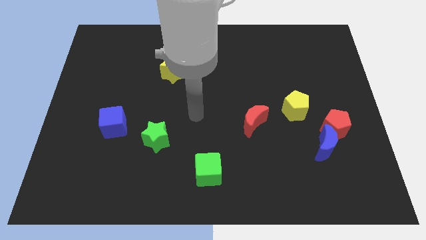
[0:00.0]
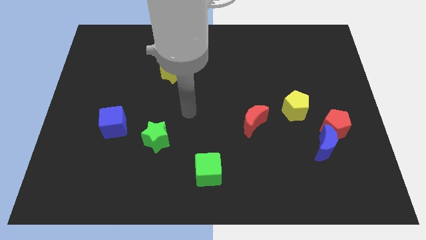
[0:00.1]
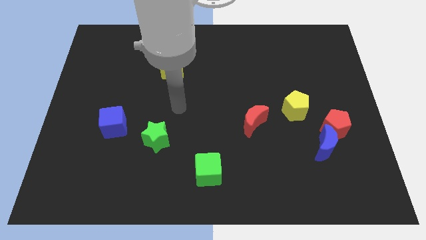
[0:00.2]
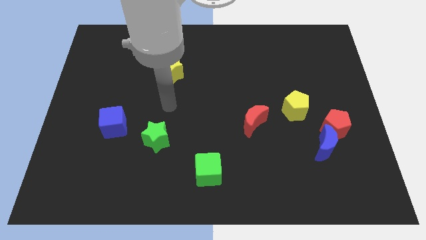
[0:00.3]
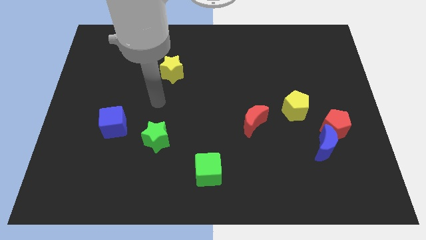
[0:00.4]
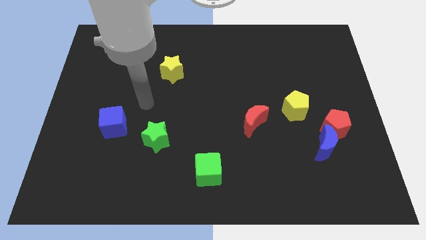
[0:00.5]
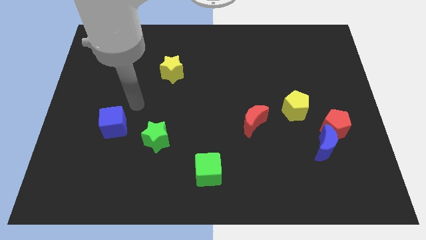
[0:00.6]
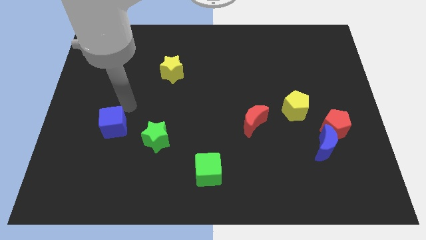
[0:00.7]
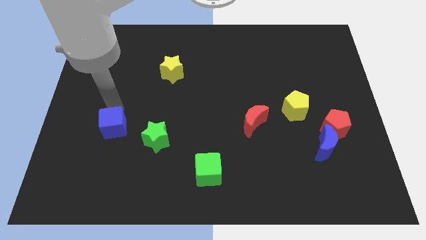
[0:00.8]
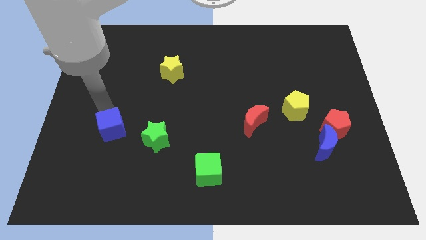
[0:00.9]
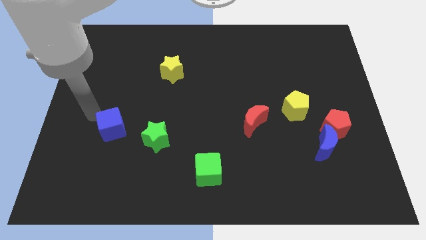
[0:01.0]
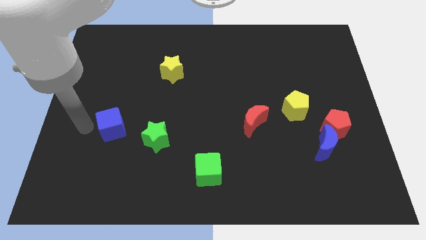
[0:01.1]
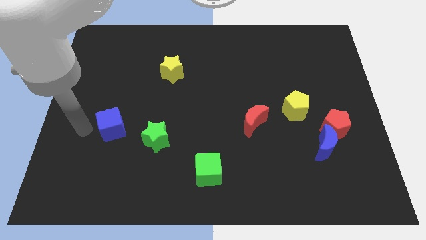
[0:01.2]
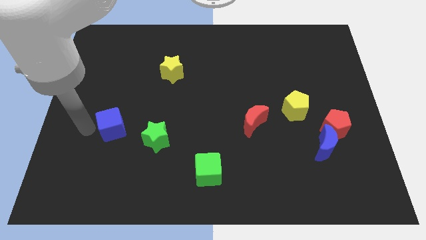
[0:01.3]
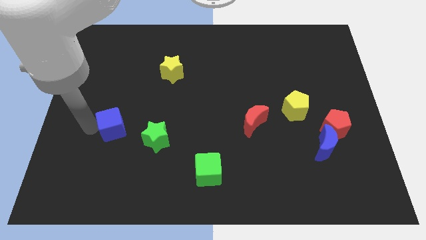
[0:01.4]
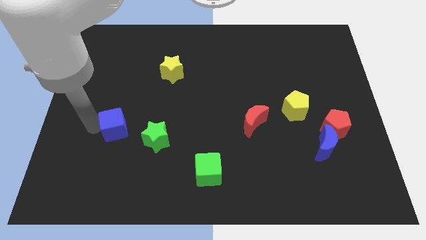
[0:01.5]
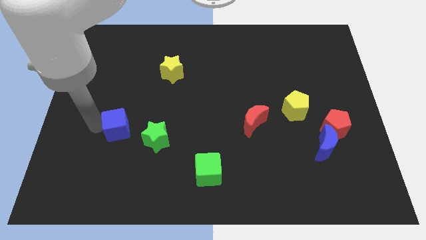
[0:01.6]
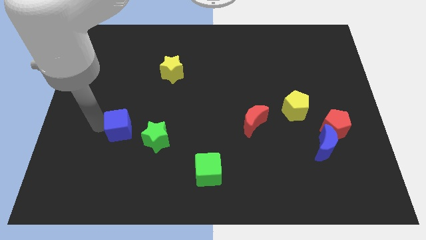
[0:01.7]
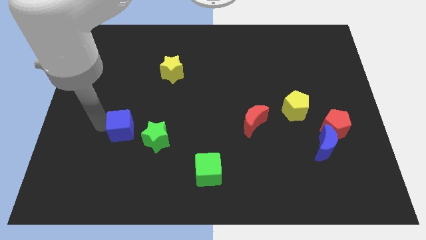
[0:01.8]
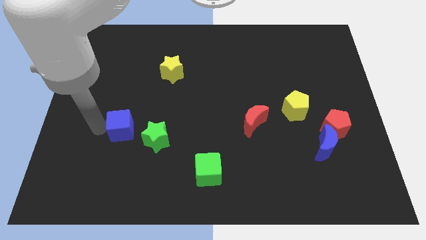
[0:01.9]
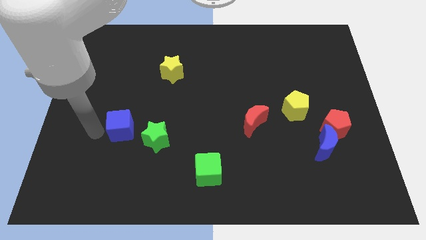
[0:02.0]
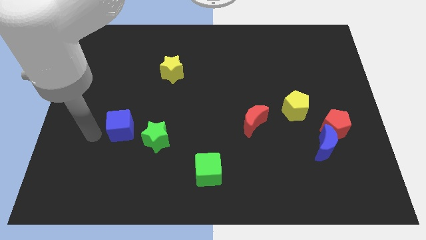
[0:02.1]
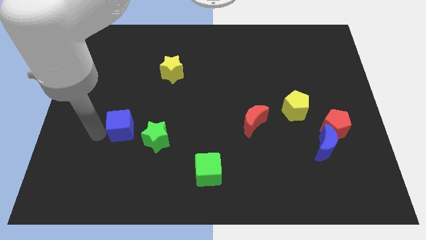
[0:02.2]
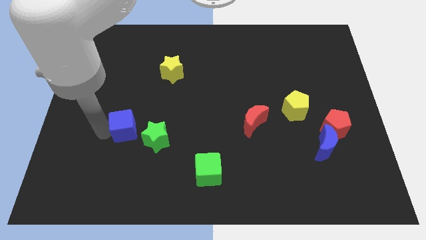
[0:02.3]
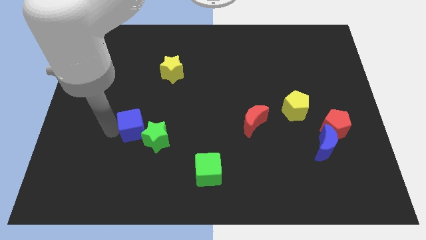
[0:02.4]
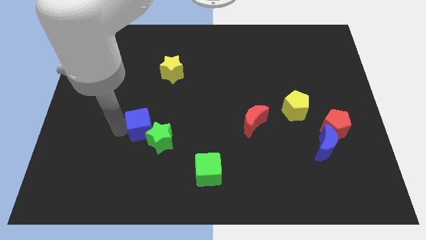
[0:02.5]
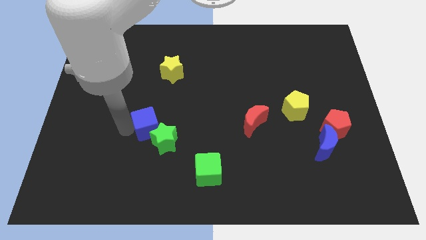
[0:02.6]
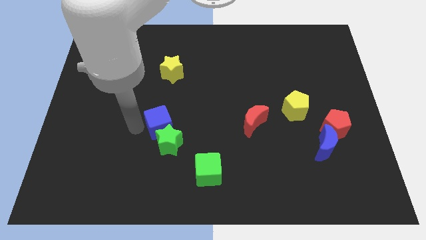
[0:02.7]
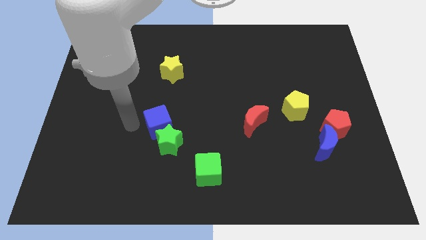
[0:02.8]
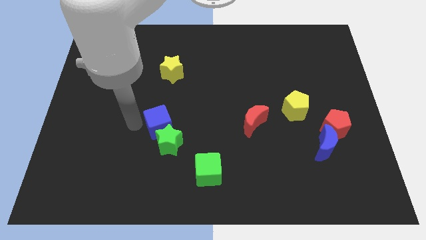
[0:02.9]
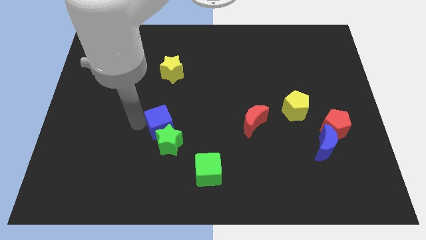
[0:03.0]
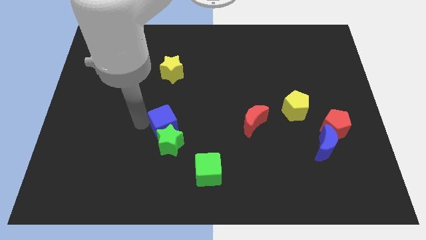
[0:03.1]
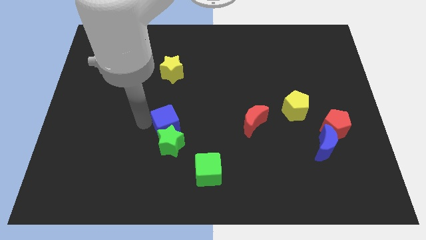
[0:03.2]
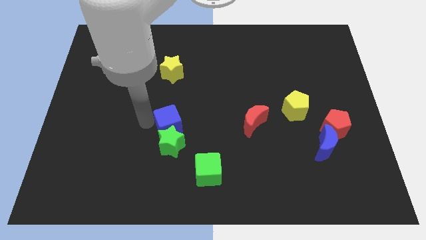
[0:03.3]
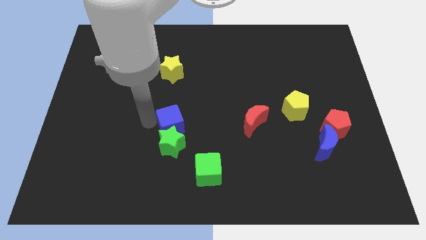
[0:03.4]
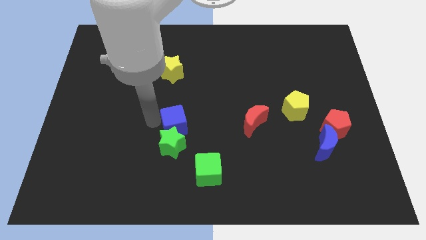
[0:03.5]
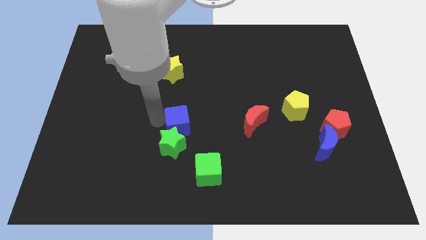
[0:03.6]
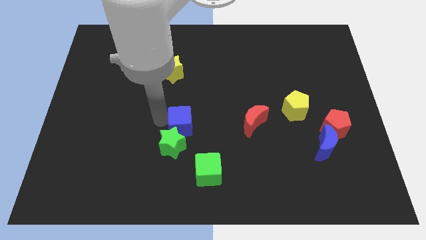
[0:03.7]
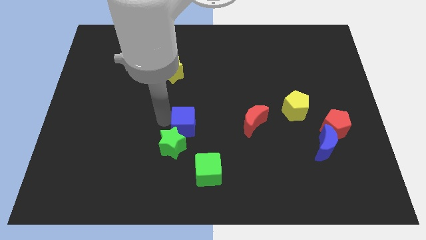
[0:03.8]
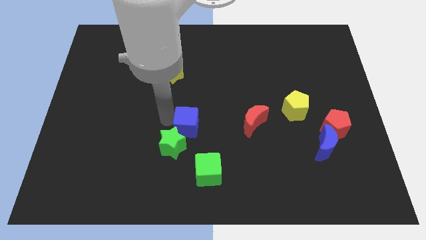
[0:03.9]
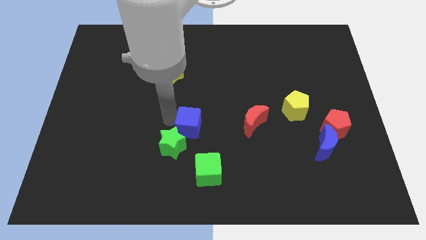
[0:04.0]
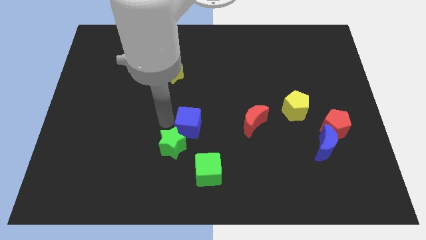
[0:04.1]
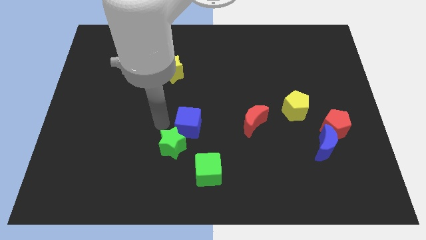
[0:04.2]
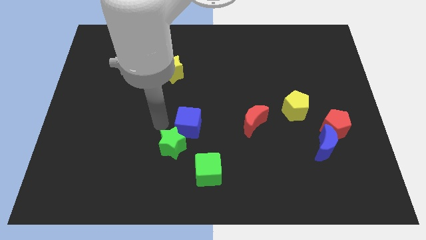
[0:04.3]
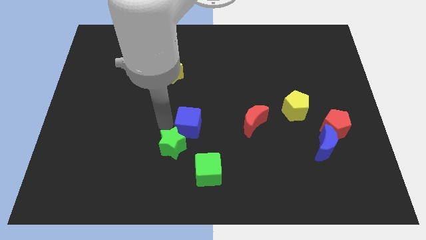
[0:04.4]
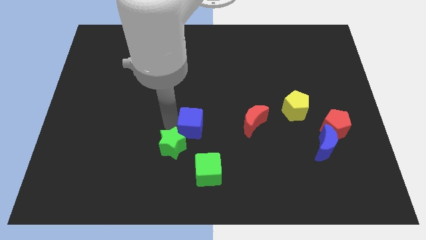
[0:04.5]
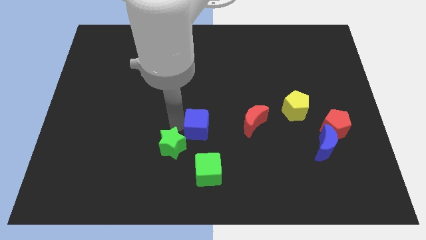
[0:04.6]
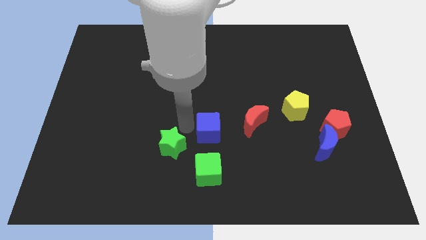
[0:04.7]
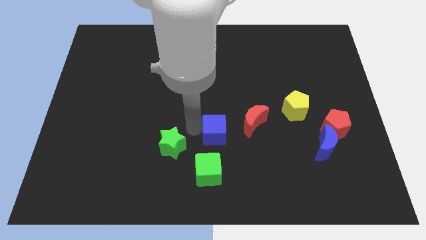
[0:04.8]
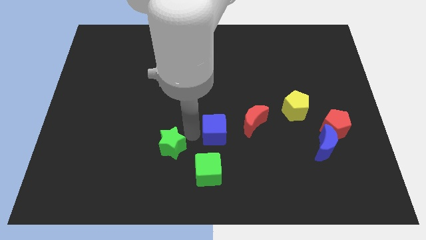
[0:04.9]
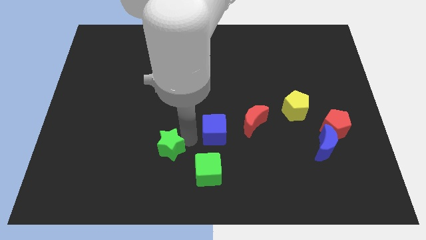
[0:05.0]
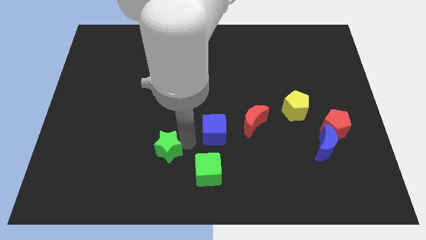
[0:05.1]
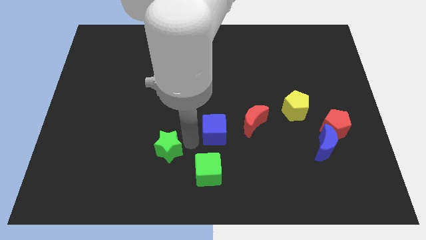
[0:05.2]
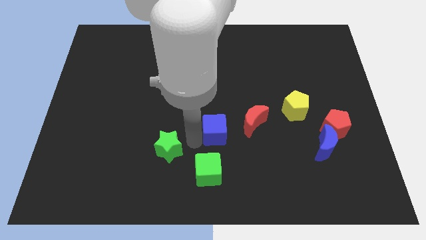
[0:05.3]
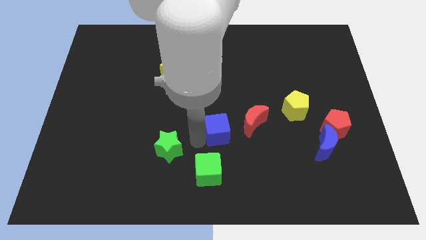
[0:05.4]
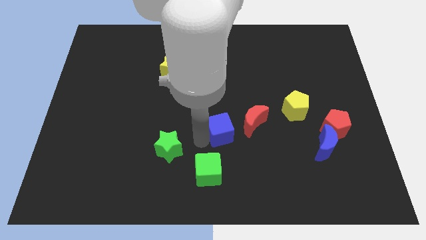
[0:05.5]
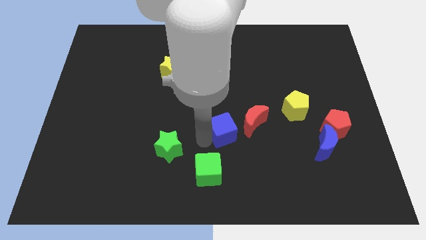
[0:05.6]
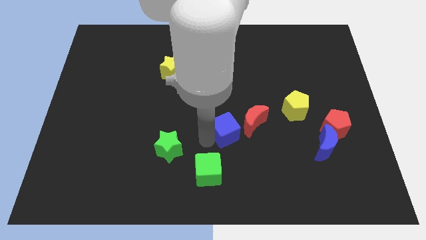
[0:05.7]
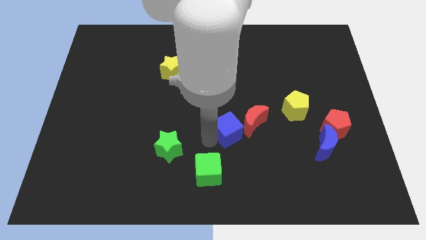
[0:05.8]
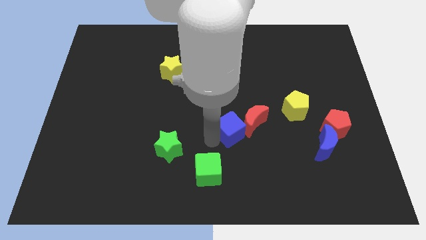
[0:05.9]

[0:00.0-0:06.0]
slide the blue cube close to the red moon

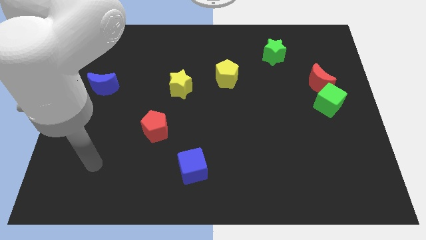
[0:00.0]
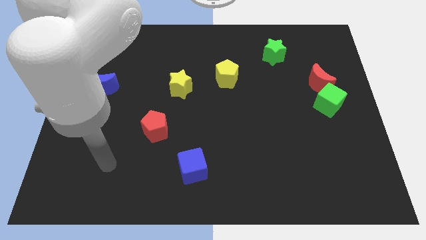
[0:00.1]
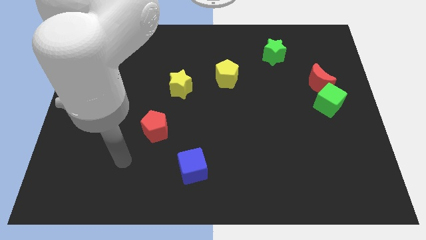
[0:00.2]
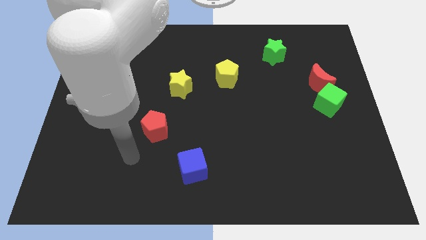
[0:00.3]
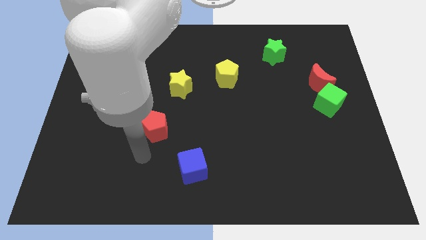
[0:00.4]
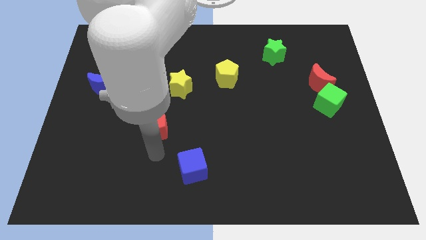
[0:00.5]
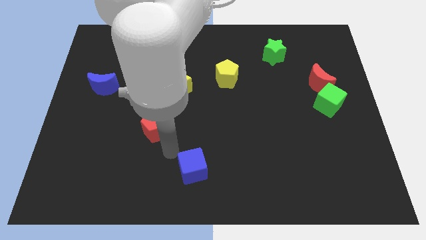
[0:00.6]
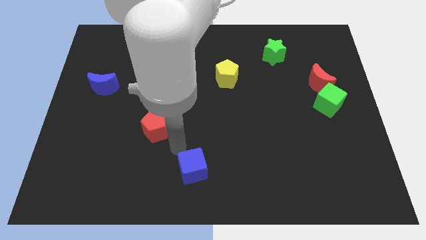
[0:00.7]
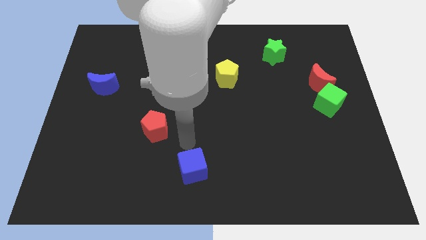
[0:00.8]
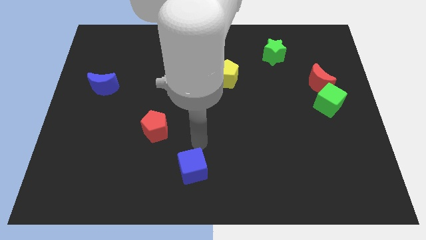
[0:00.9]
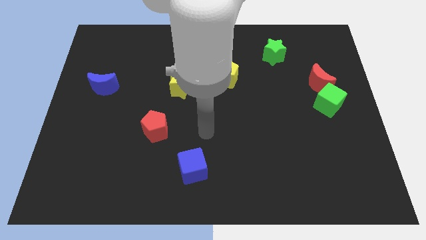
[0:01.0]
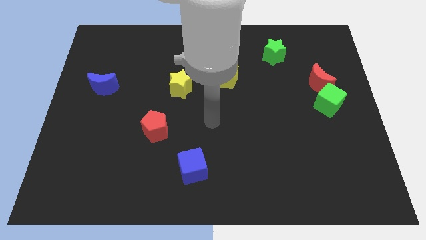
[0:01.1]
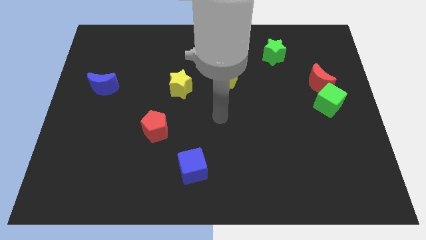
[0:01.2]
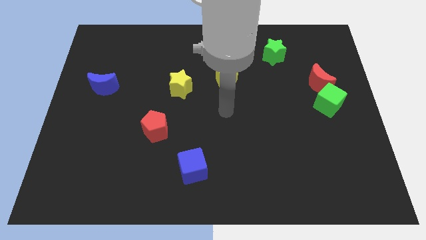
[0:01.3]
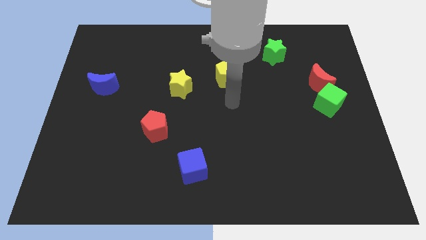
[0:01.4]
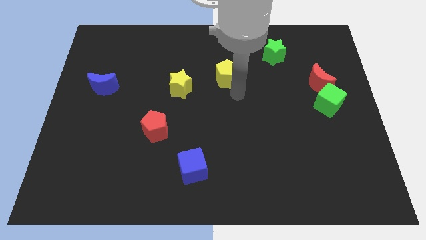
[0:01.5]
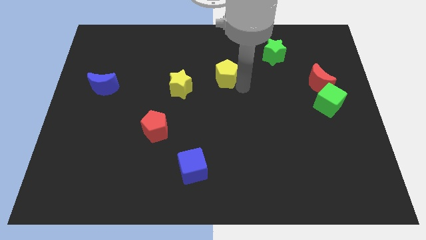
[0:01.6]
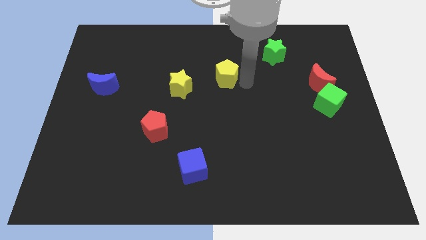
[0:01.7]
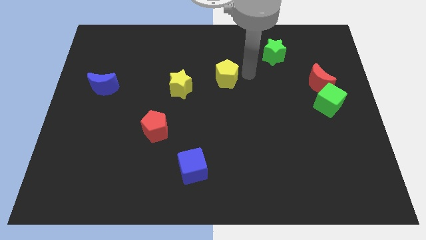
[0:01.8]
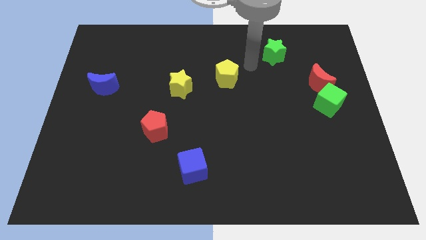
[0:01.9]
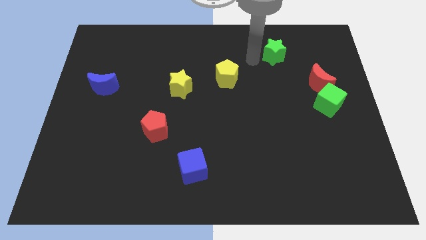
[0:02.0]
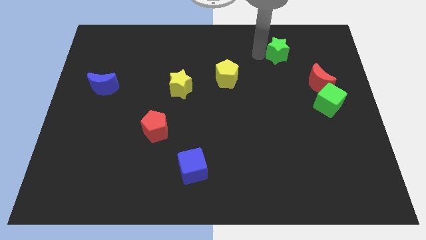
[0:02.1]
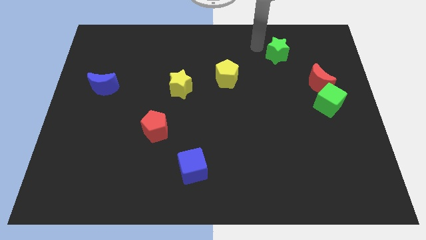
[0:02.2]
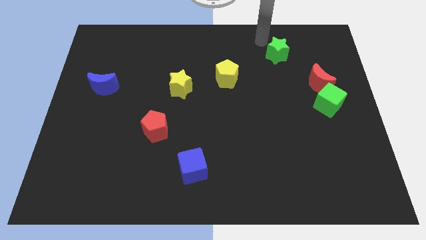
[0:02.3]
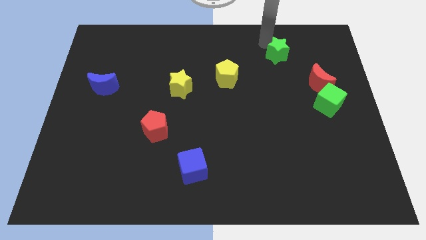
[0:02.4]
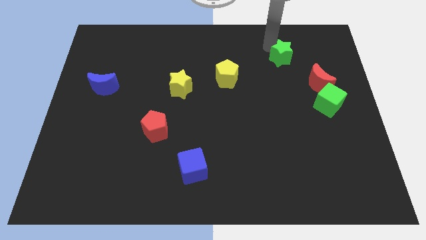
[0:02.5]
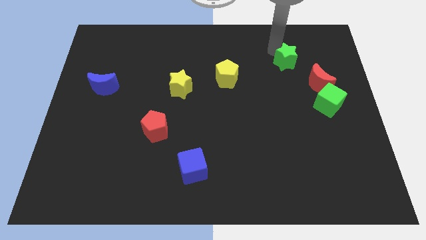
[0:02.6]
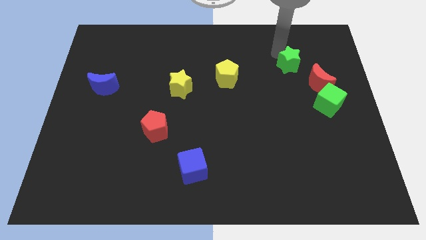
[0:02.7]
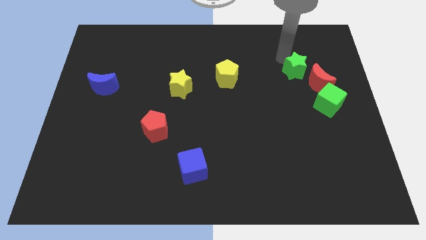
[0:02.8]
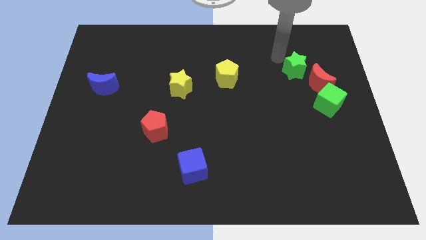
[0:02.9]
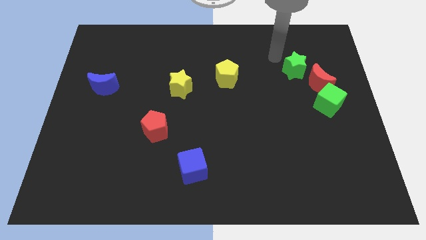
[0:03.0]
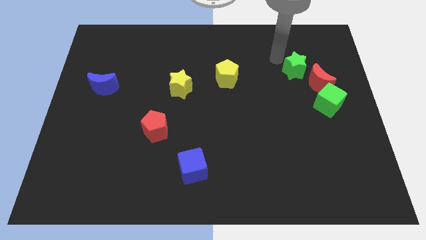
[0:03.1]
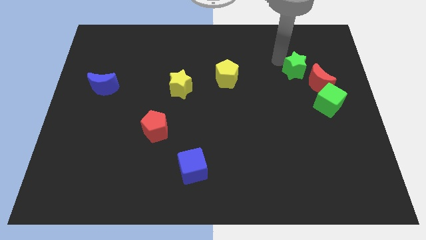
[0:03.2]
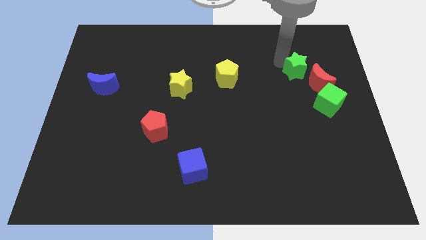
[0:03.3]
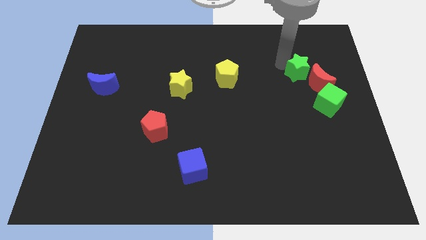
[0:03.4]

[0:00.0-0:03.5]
put the green star close to the red moon
